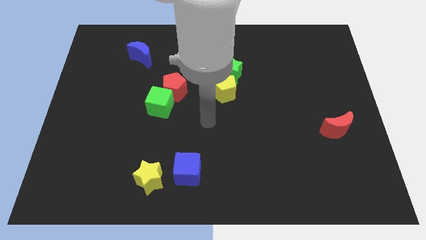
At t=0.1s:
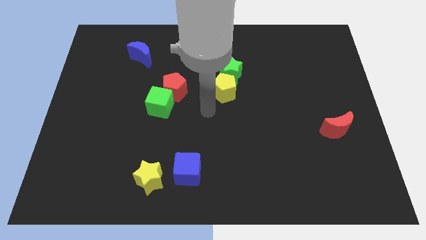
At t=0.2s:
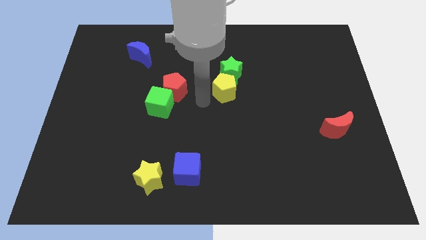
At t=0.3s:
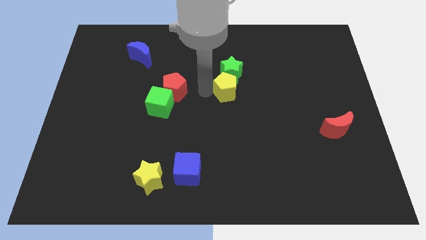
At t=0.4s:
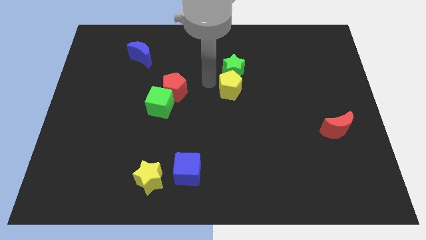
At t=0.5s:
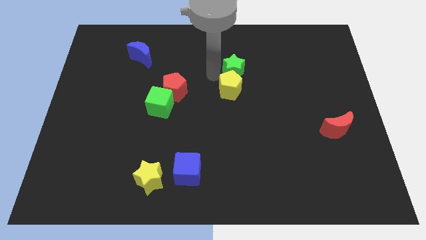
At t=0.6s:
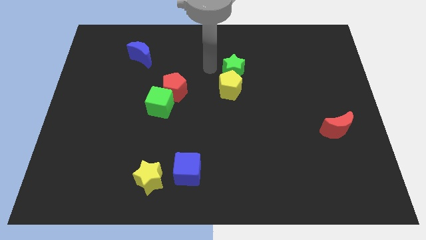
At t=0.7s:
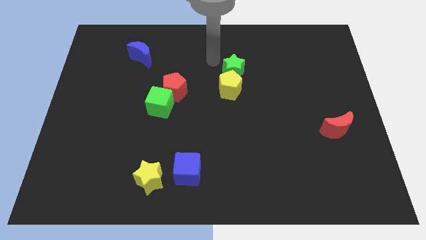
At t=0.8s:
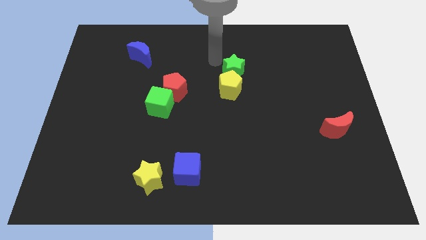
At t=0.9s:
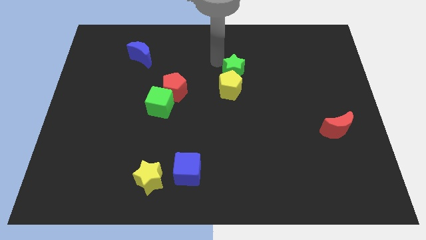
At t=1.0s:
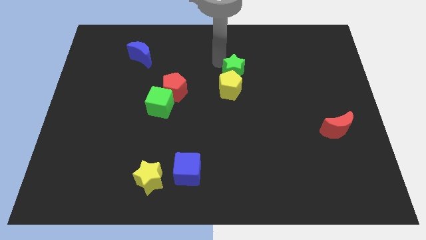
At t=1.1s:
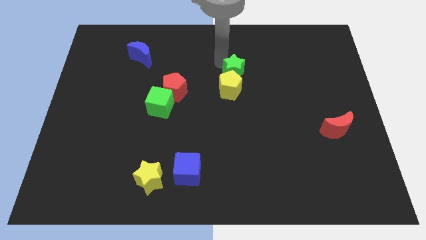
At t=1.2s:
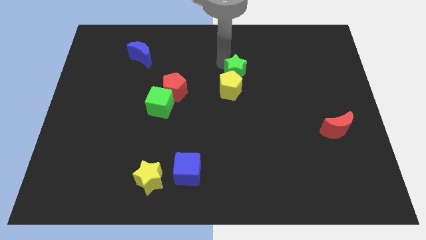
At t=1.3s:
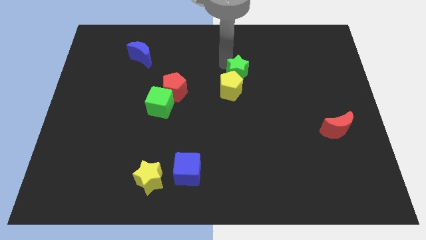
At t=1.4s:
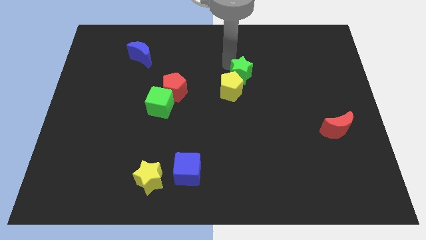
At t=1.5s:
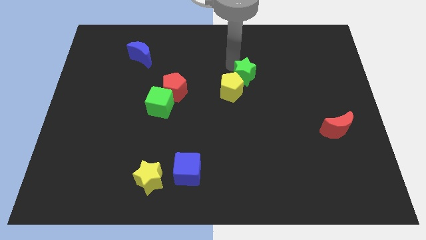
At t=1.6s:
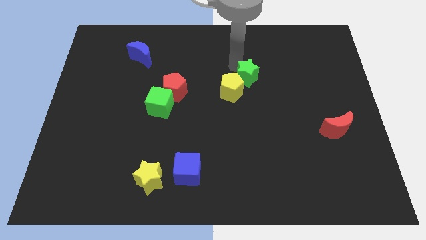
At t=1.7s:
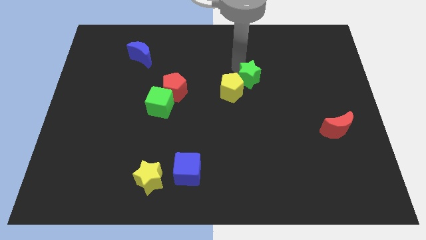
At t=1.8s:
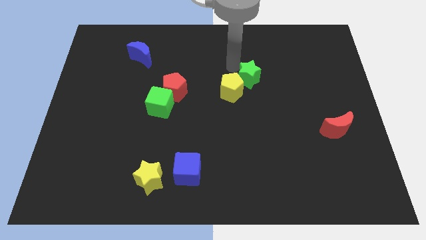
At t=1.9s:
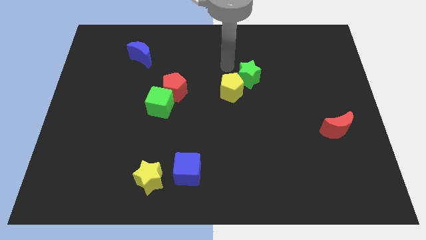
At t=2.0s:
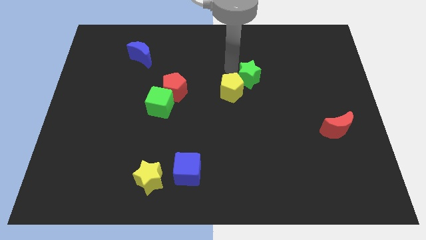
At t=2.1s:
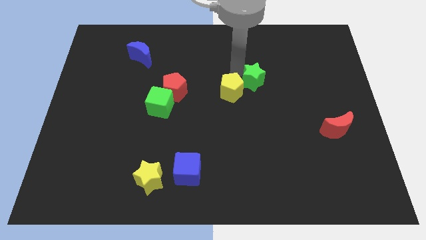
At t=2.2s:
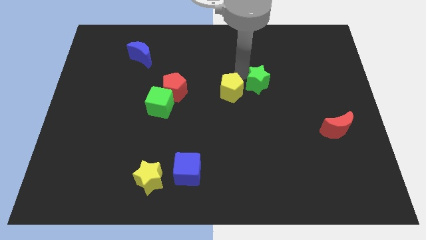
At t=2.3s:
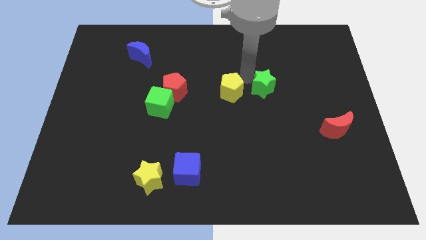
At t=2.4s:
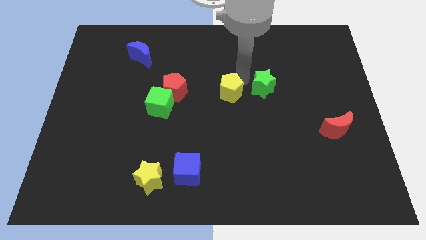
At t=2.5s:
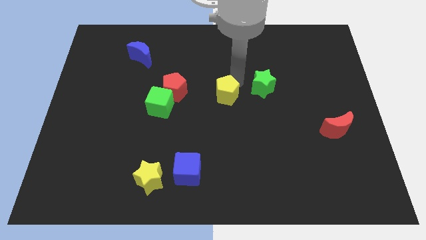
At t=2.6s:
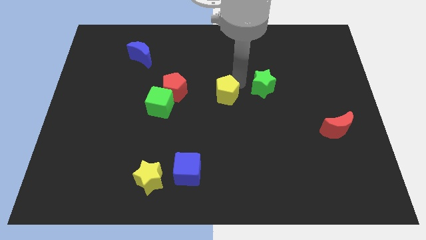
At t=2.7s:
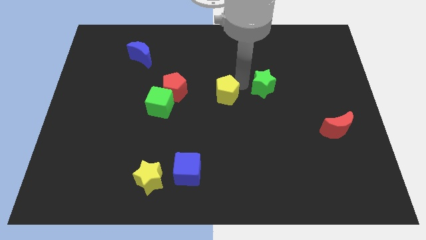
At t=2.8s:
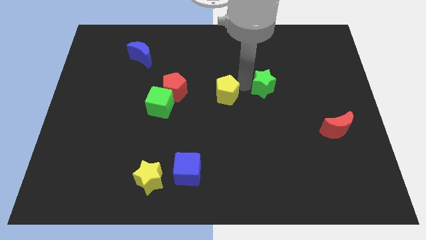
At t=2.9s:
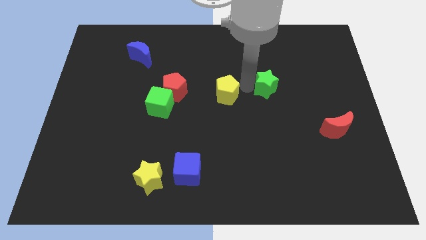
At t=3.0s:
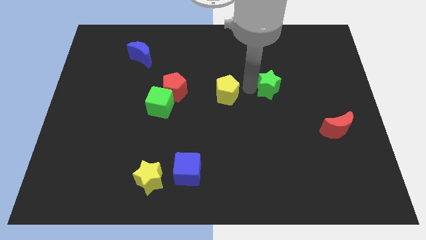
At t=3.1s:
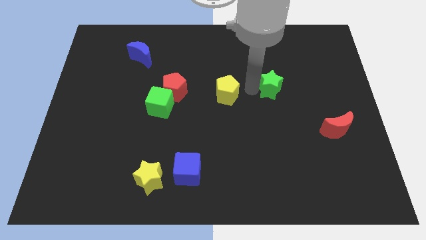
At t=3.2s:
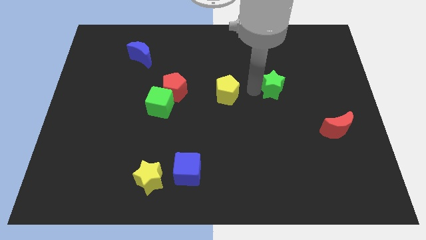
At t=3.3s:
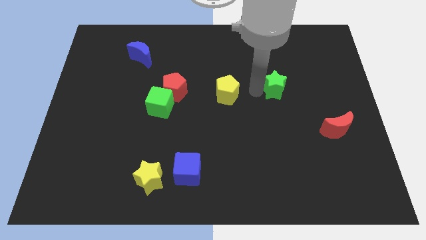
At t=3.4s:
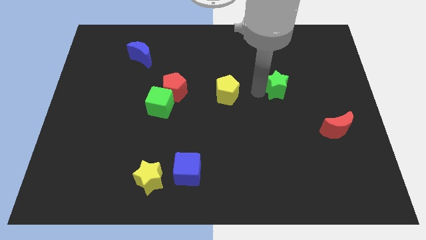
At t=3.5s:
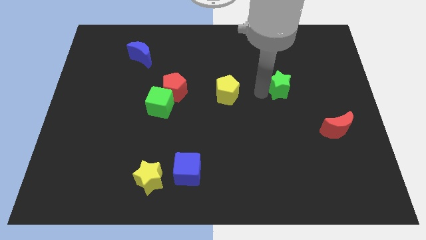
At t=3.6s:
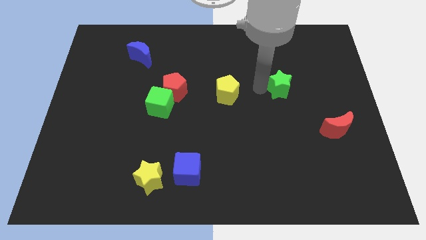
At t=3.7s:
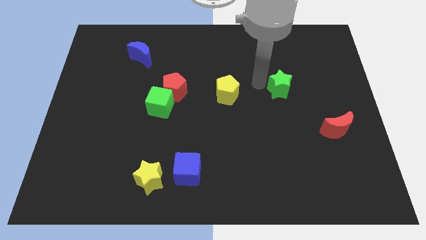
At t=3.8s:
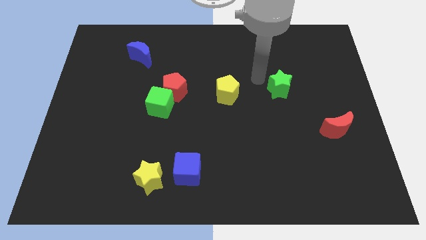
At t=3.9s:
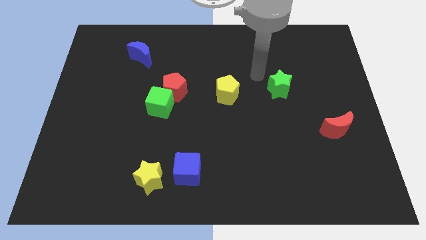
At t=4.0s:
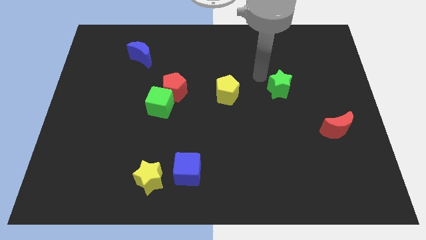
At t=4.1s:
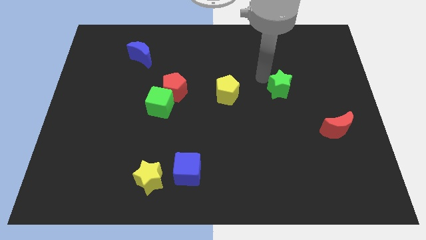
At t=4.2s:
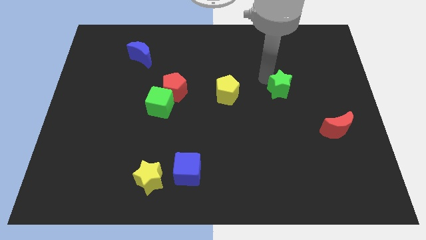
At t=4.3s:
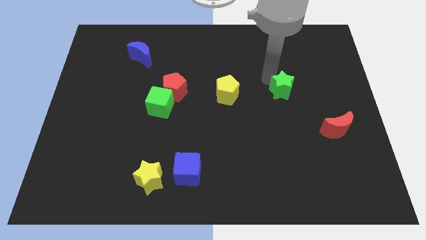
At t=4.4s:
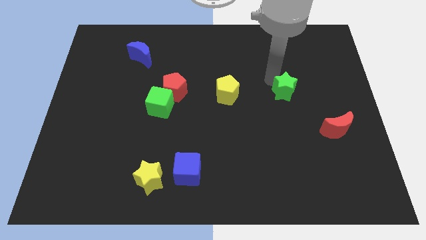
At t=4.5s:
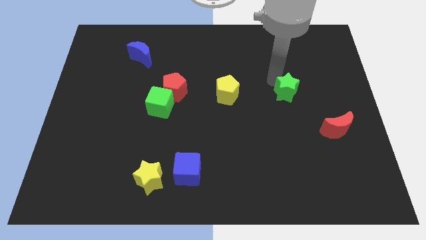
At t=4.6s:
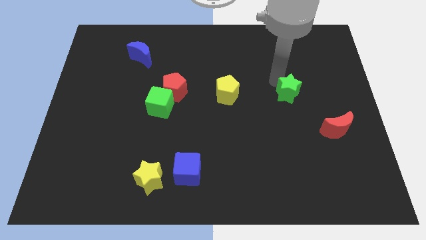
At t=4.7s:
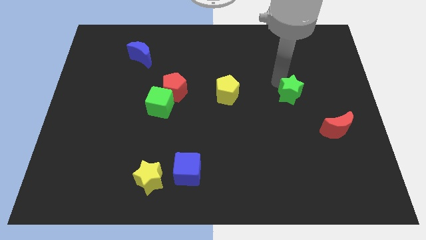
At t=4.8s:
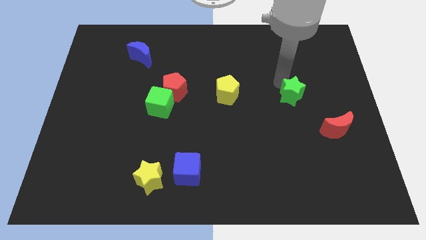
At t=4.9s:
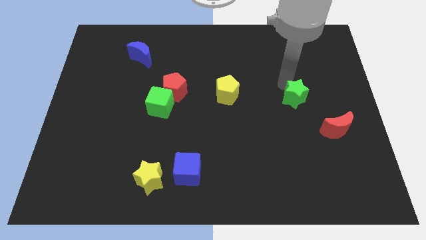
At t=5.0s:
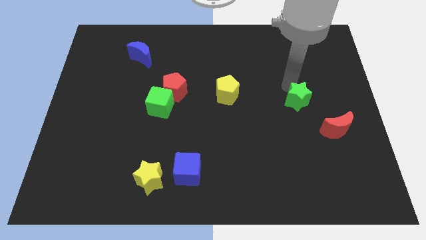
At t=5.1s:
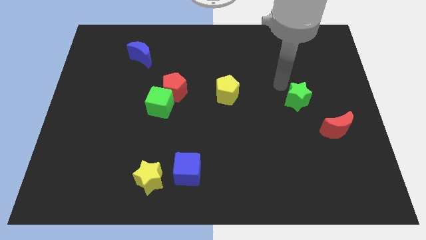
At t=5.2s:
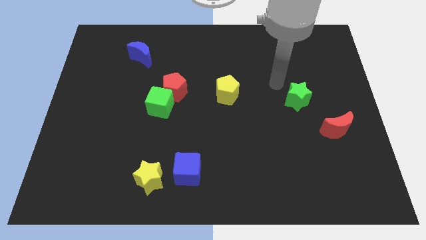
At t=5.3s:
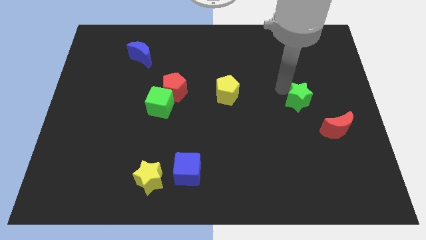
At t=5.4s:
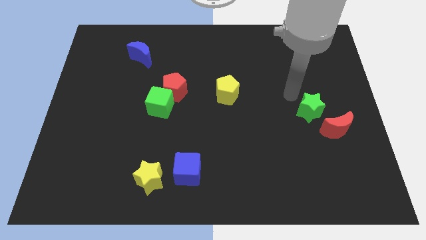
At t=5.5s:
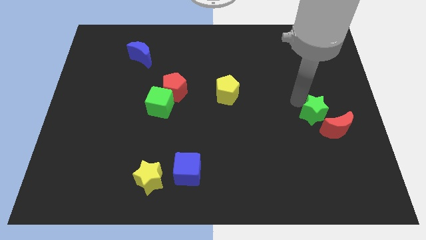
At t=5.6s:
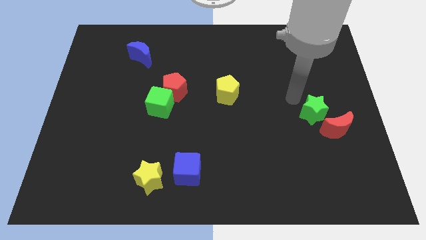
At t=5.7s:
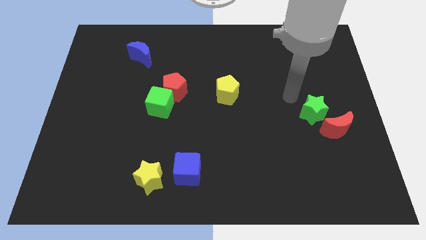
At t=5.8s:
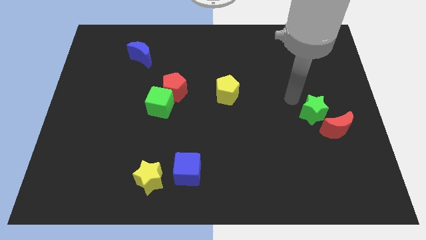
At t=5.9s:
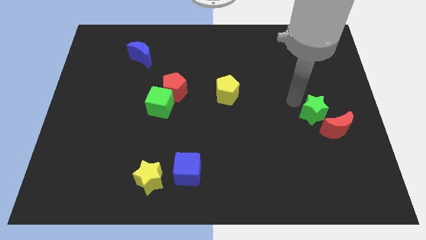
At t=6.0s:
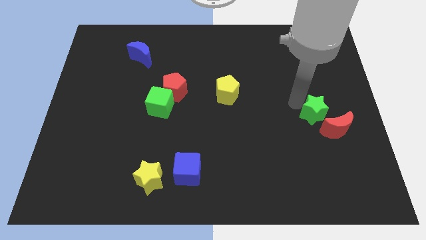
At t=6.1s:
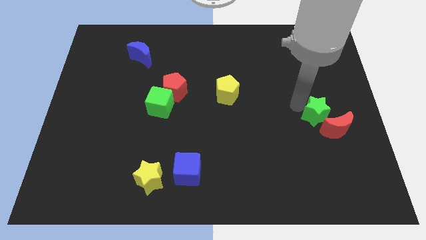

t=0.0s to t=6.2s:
slide the green star next to the red moon

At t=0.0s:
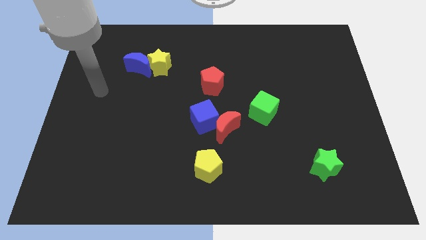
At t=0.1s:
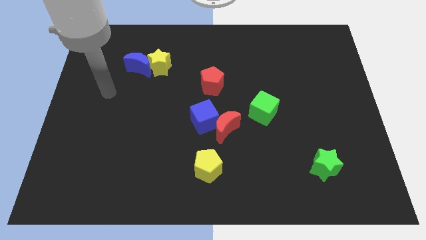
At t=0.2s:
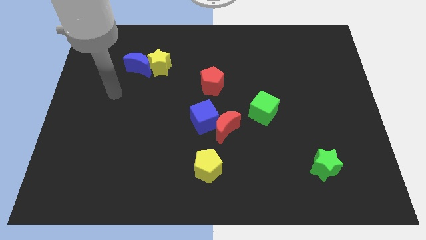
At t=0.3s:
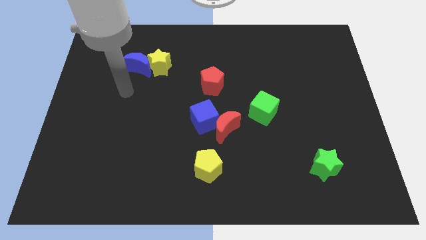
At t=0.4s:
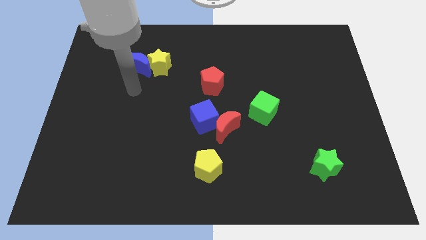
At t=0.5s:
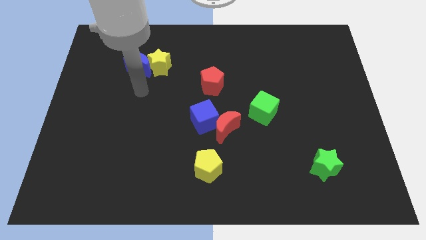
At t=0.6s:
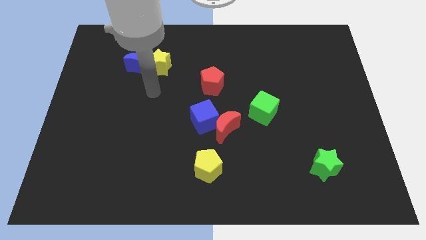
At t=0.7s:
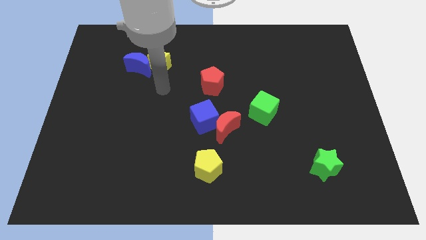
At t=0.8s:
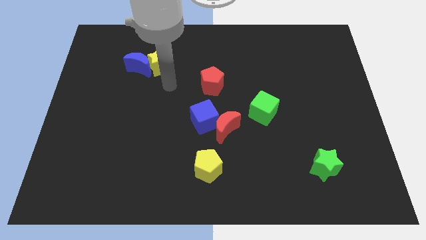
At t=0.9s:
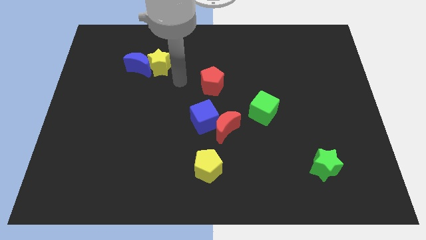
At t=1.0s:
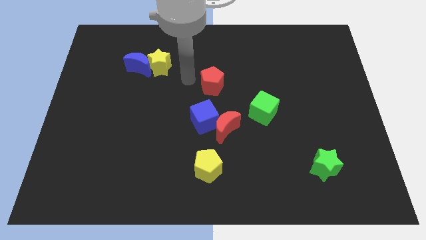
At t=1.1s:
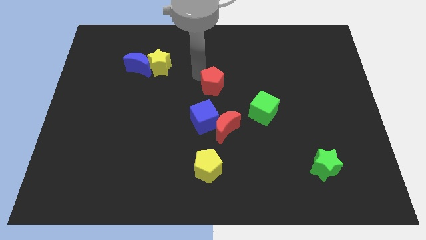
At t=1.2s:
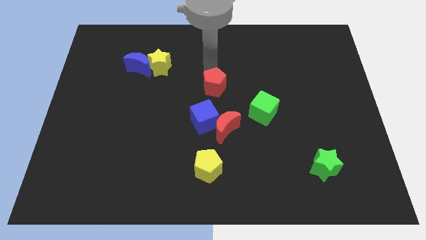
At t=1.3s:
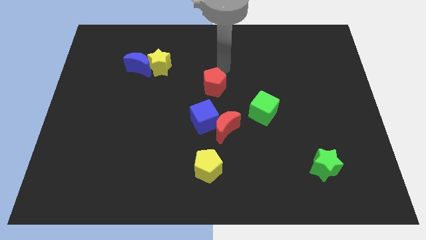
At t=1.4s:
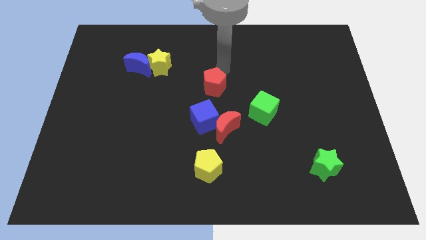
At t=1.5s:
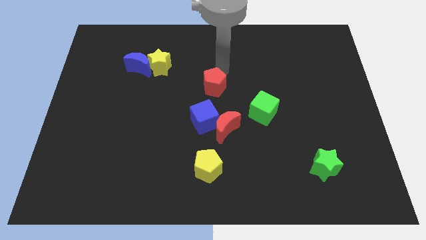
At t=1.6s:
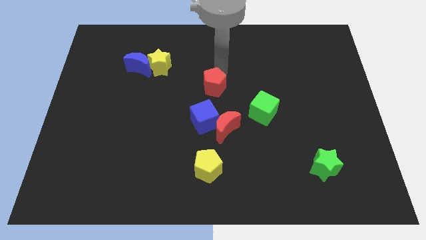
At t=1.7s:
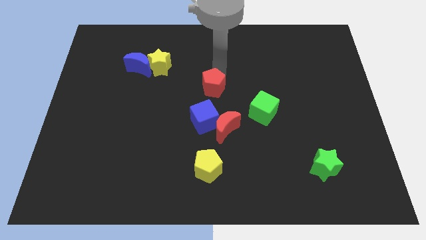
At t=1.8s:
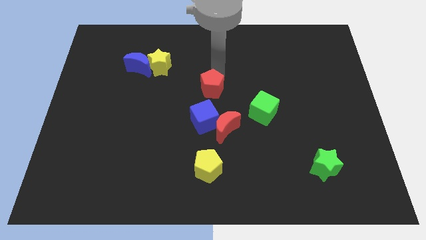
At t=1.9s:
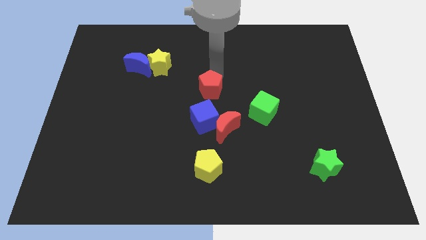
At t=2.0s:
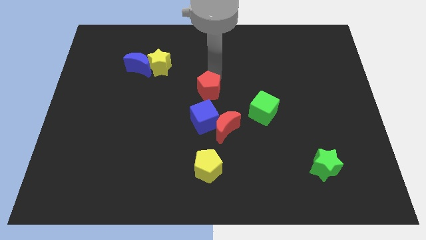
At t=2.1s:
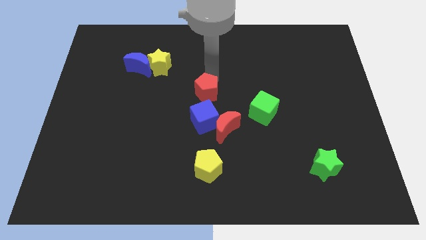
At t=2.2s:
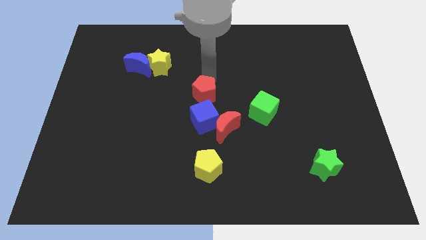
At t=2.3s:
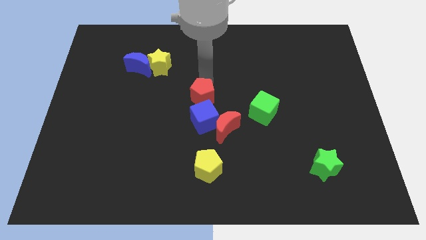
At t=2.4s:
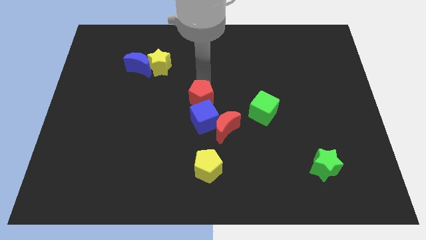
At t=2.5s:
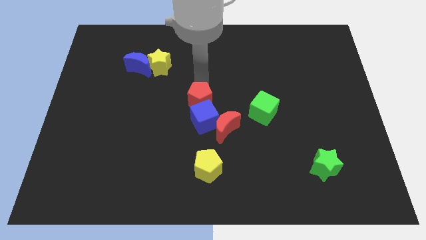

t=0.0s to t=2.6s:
put the red pentagon close to the blue cube
